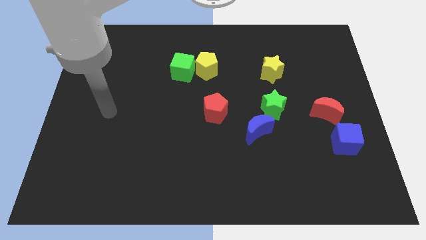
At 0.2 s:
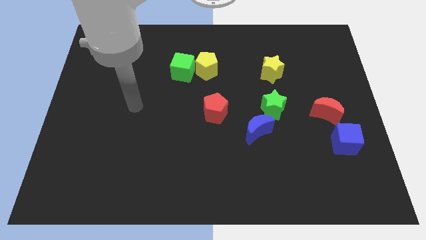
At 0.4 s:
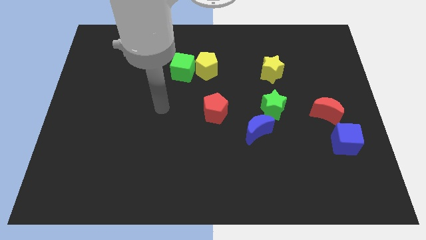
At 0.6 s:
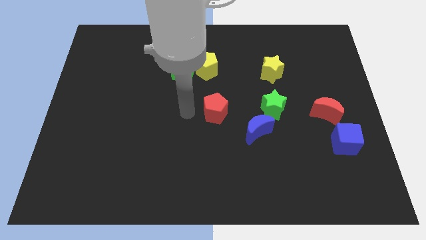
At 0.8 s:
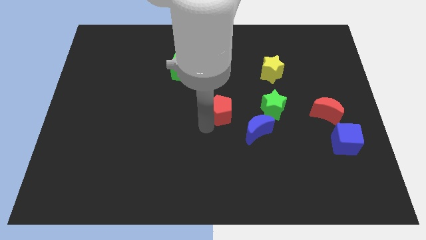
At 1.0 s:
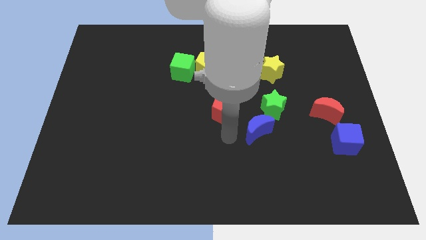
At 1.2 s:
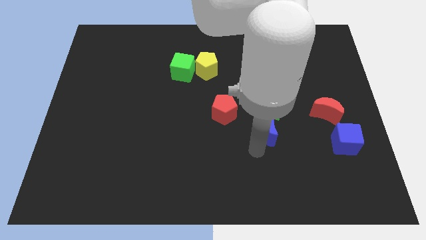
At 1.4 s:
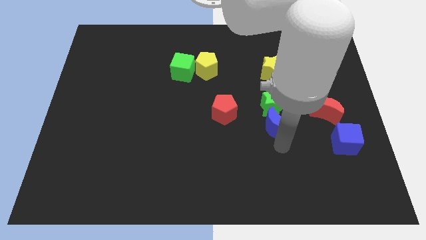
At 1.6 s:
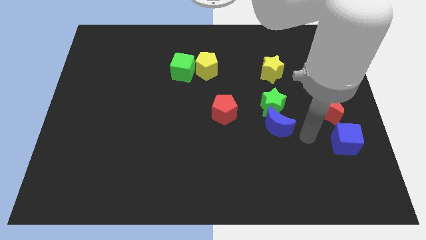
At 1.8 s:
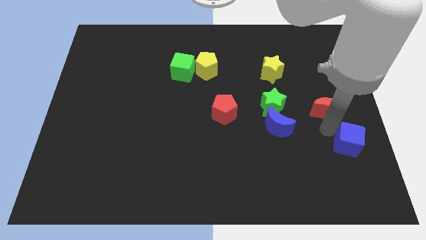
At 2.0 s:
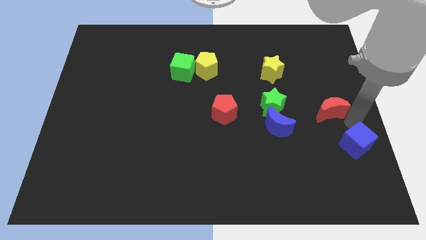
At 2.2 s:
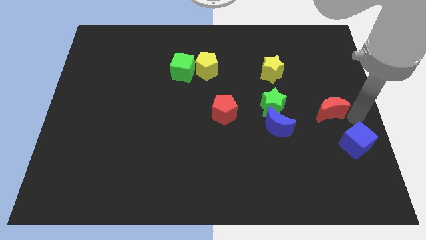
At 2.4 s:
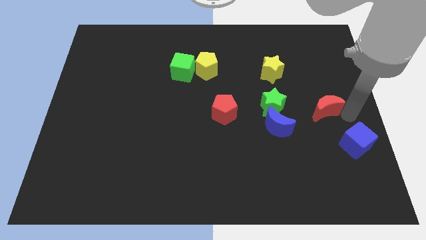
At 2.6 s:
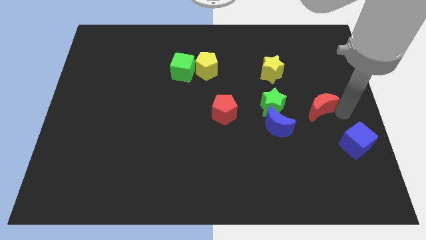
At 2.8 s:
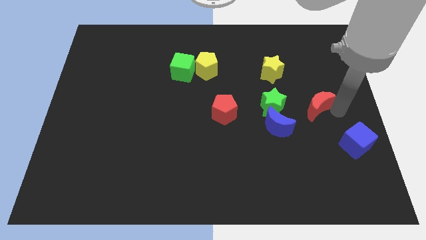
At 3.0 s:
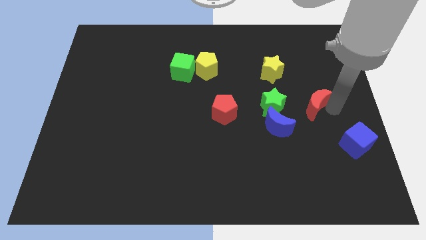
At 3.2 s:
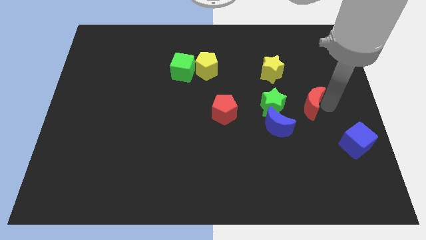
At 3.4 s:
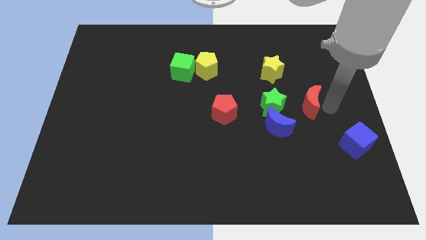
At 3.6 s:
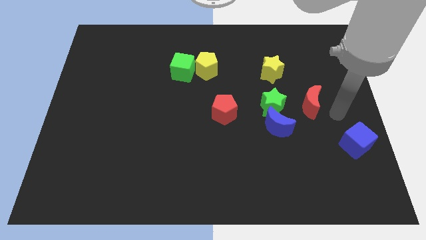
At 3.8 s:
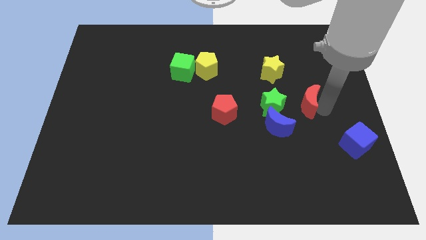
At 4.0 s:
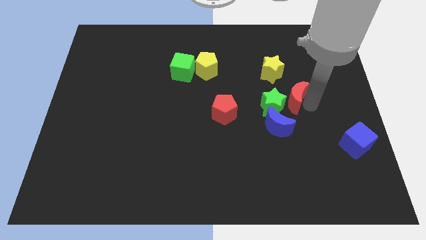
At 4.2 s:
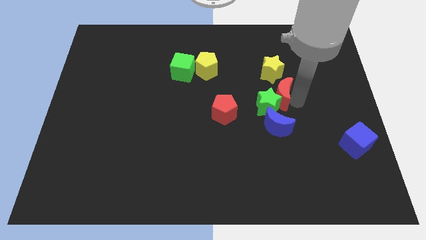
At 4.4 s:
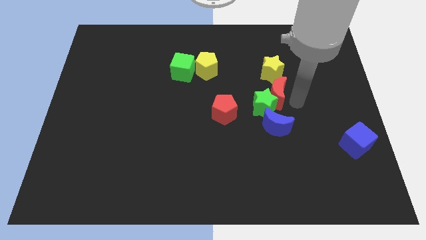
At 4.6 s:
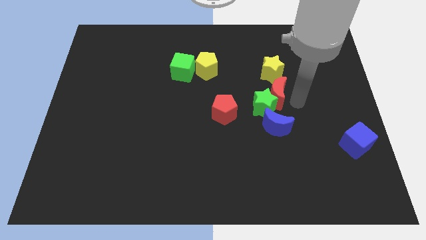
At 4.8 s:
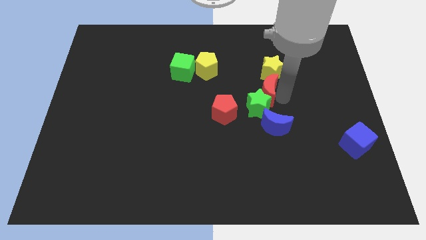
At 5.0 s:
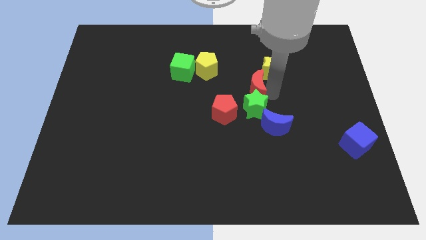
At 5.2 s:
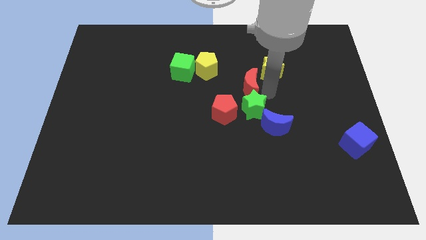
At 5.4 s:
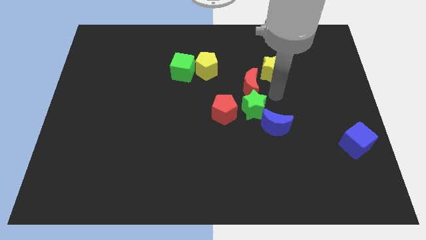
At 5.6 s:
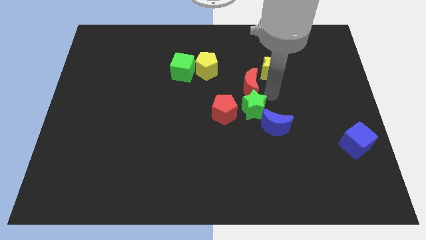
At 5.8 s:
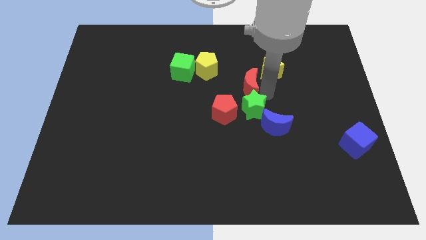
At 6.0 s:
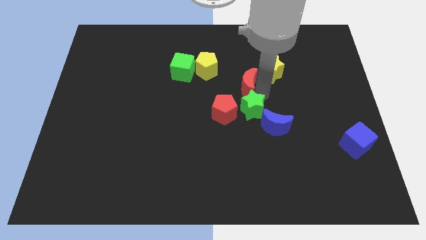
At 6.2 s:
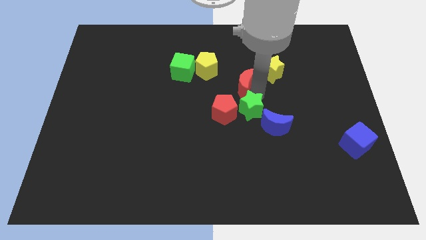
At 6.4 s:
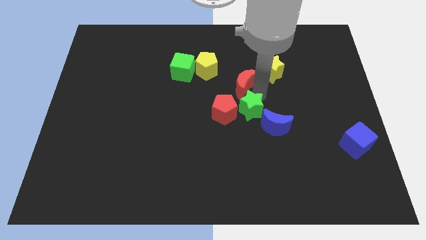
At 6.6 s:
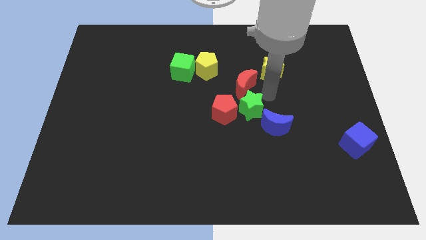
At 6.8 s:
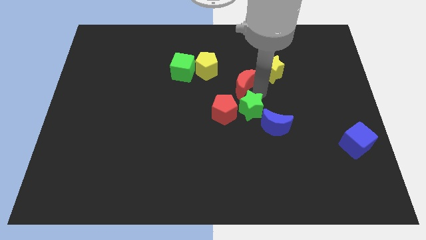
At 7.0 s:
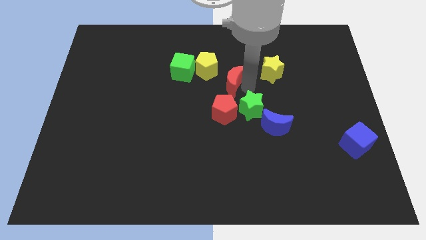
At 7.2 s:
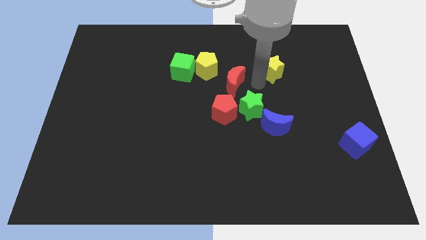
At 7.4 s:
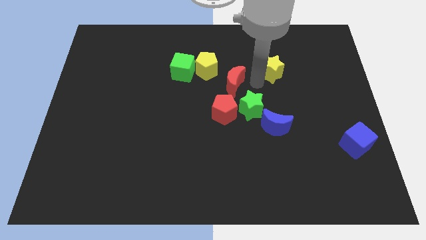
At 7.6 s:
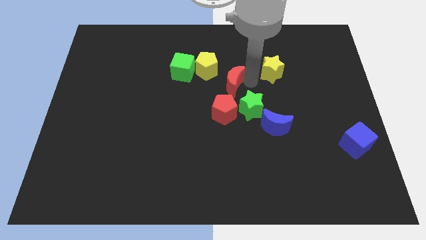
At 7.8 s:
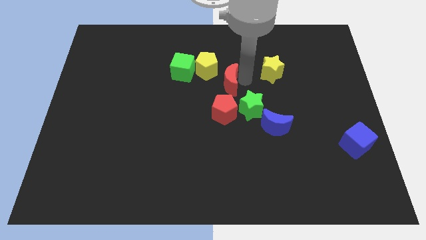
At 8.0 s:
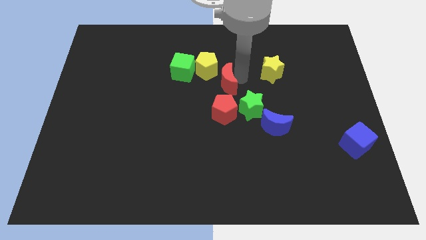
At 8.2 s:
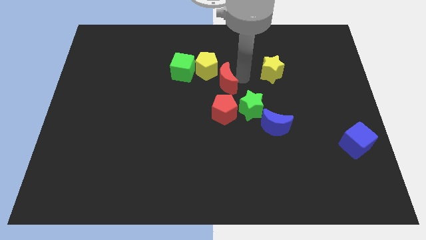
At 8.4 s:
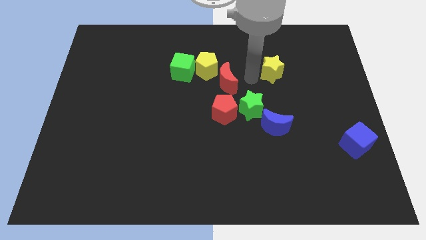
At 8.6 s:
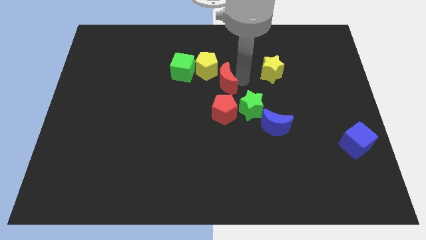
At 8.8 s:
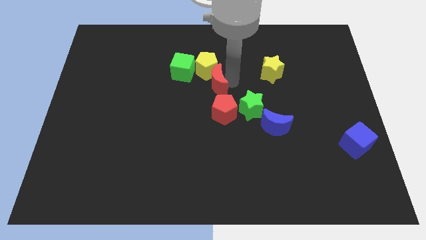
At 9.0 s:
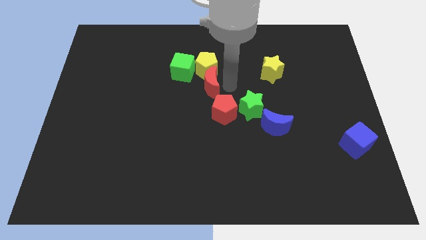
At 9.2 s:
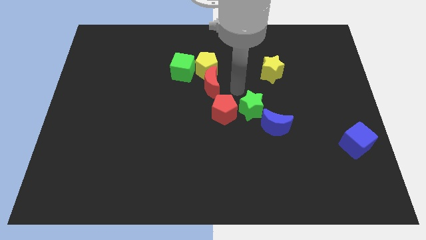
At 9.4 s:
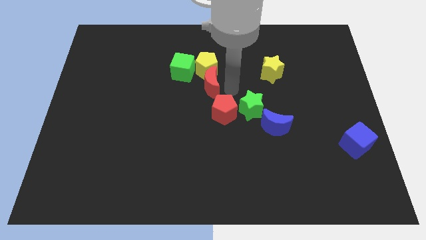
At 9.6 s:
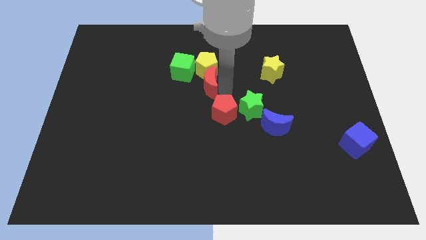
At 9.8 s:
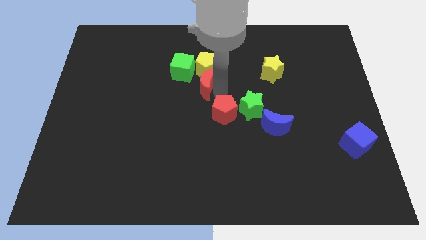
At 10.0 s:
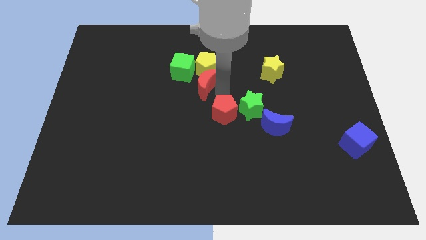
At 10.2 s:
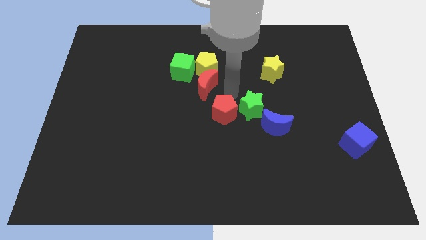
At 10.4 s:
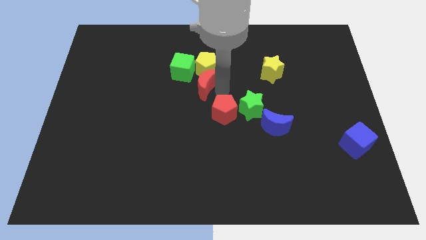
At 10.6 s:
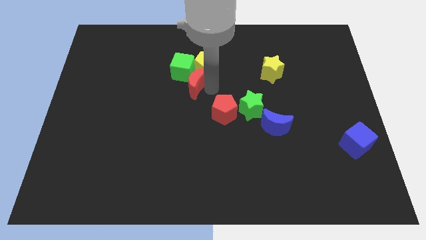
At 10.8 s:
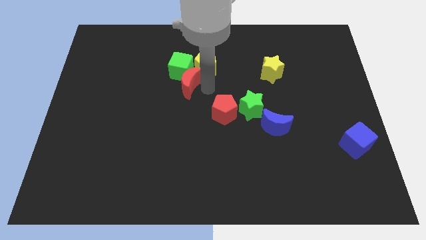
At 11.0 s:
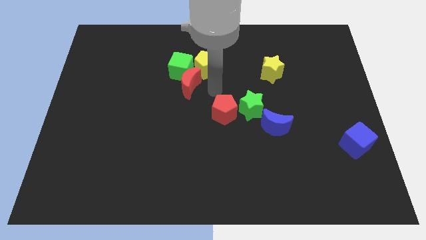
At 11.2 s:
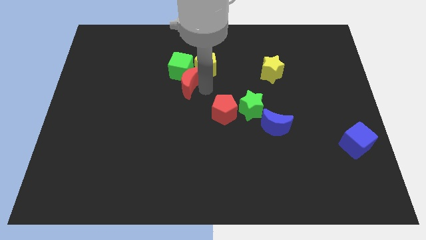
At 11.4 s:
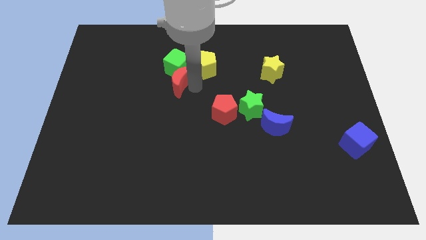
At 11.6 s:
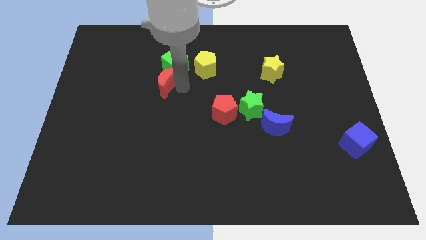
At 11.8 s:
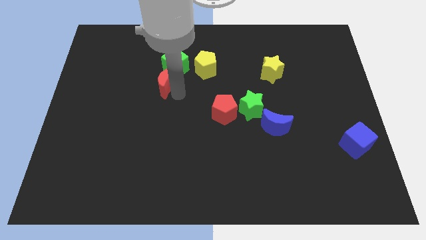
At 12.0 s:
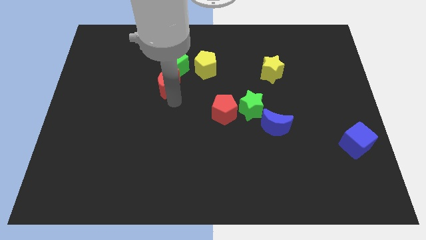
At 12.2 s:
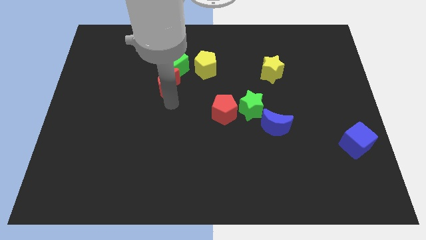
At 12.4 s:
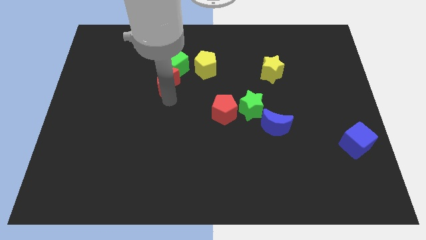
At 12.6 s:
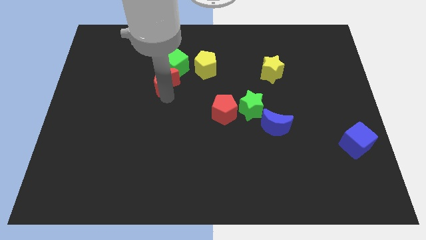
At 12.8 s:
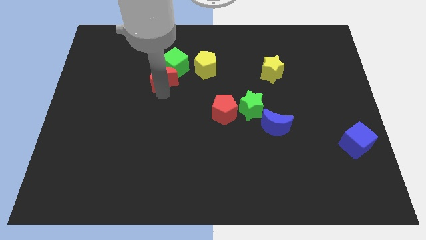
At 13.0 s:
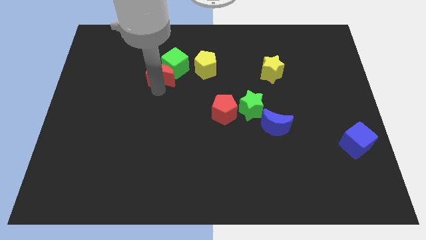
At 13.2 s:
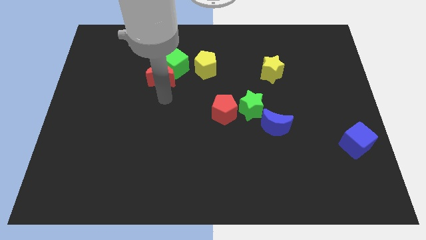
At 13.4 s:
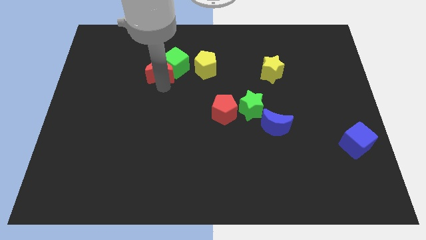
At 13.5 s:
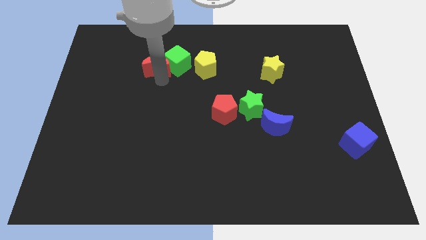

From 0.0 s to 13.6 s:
put the red moon diagonally up and to the left of the green cube
